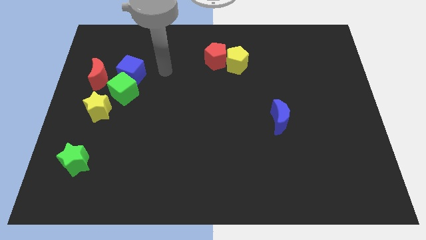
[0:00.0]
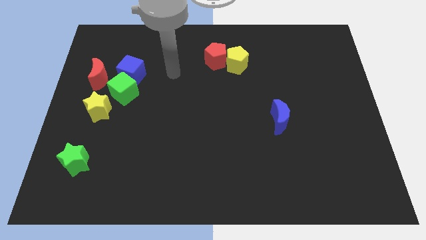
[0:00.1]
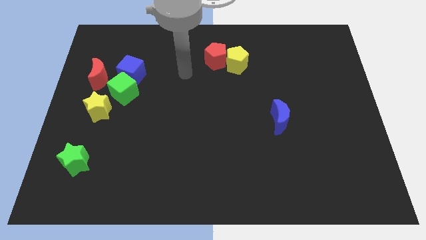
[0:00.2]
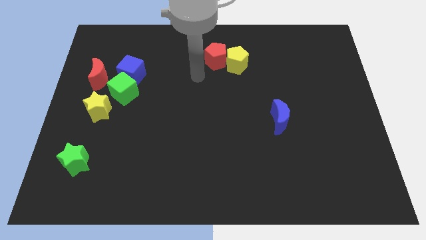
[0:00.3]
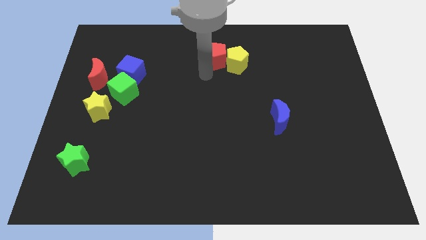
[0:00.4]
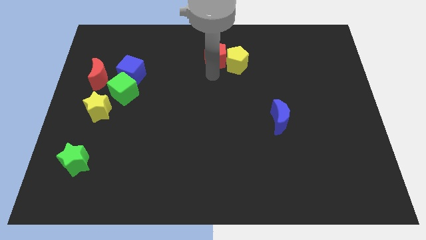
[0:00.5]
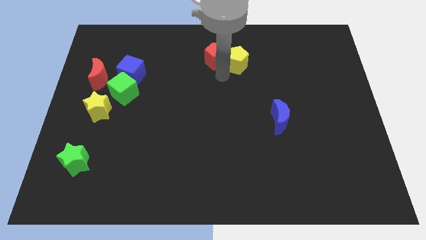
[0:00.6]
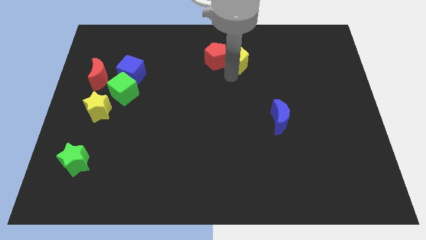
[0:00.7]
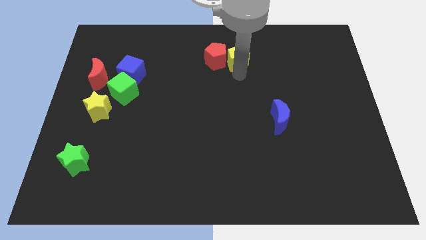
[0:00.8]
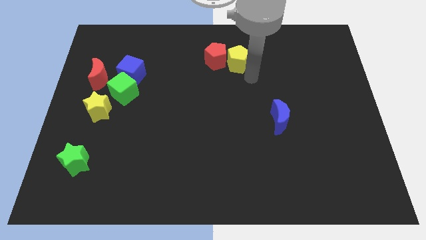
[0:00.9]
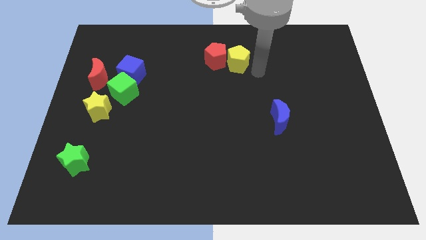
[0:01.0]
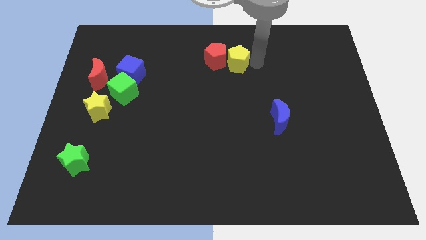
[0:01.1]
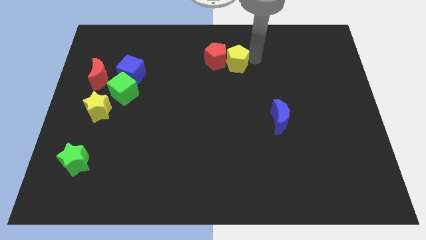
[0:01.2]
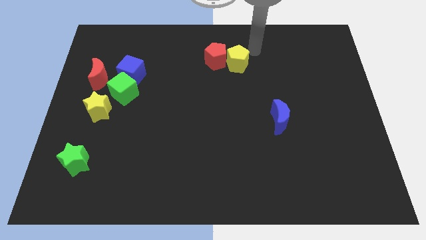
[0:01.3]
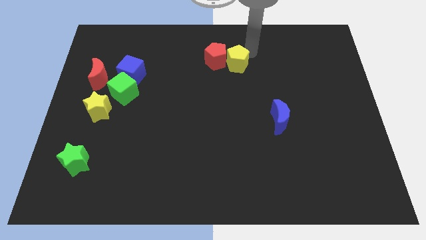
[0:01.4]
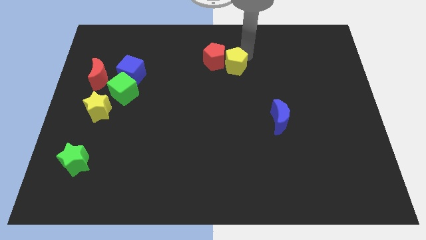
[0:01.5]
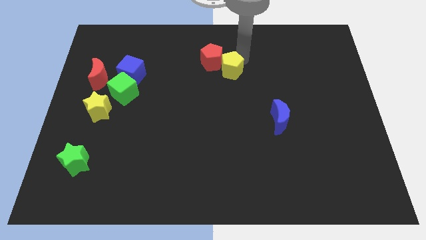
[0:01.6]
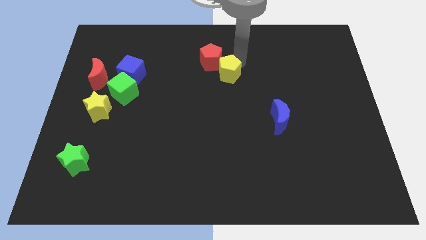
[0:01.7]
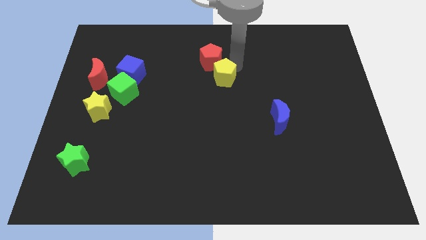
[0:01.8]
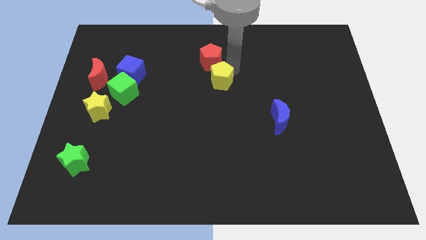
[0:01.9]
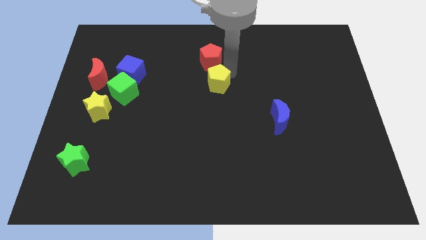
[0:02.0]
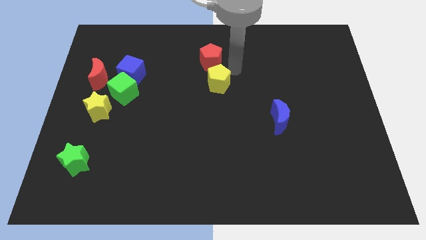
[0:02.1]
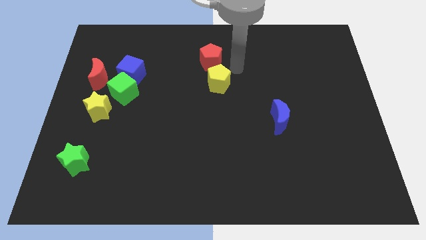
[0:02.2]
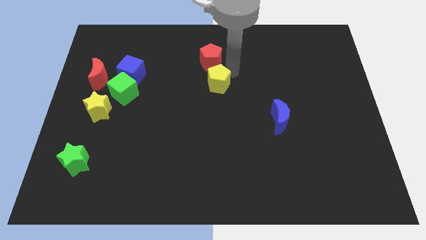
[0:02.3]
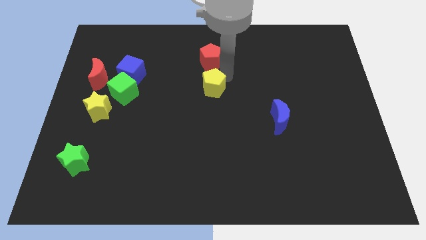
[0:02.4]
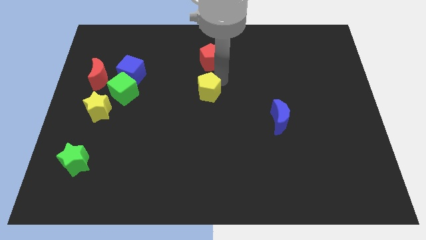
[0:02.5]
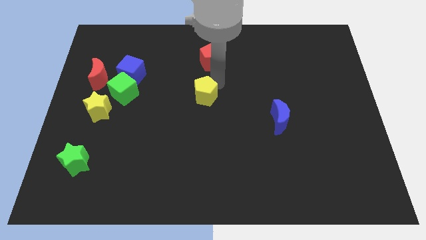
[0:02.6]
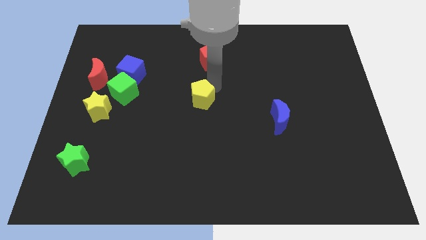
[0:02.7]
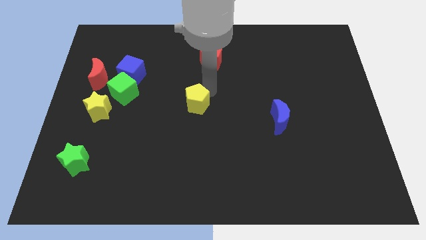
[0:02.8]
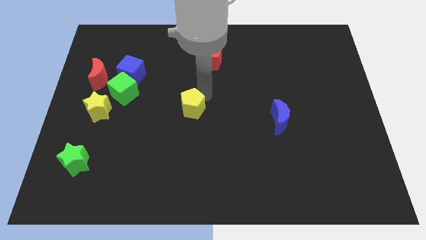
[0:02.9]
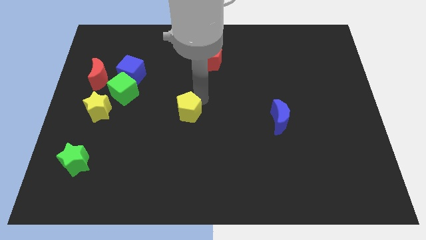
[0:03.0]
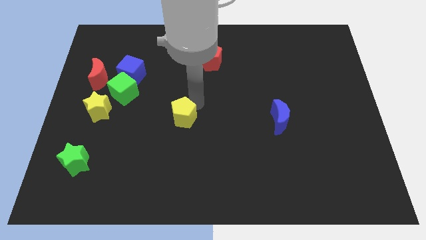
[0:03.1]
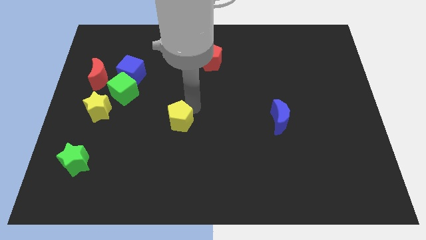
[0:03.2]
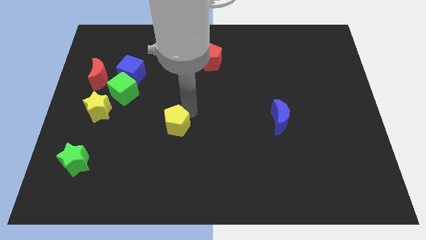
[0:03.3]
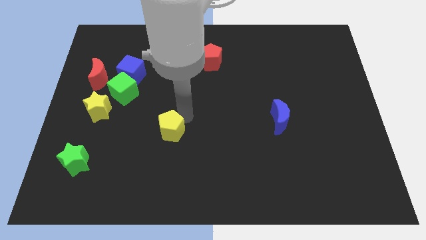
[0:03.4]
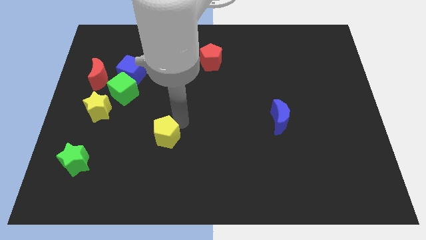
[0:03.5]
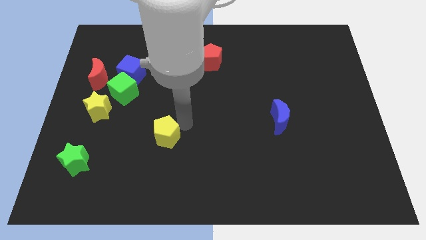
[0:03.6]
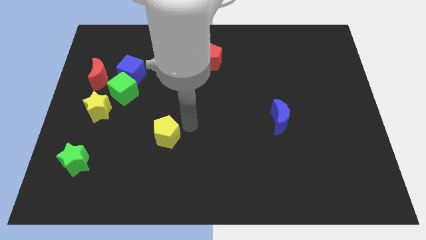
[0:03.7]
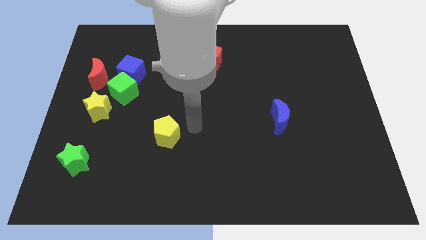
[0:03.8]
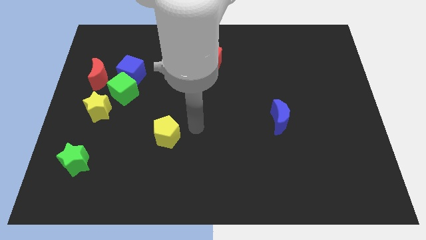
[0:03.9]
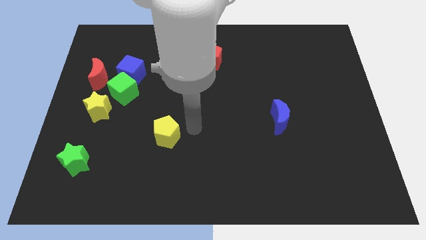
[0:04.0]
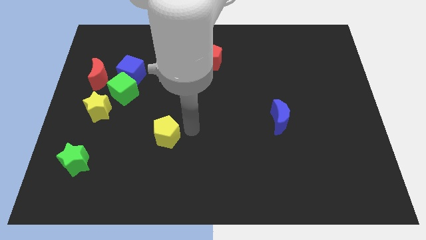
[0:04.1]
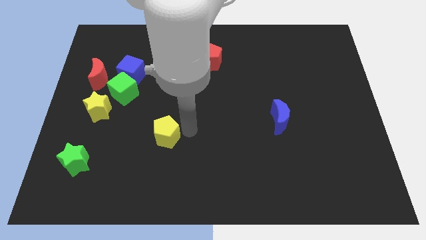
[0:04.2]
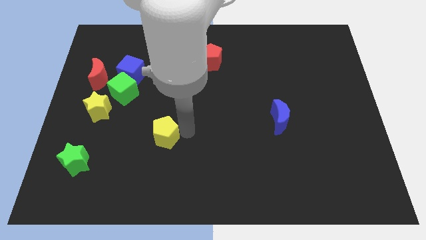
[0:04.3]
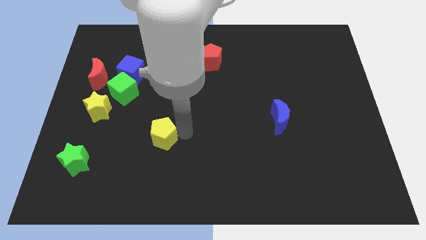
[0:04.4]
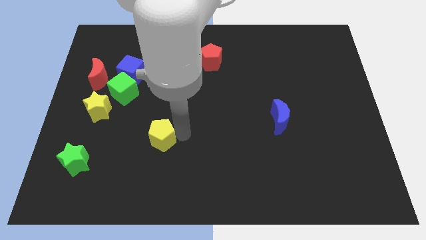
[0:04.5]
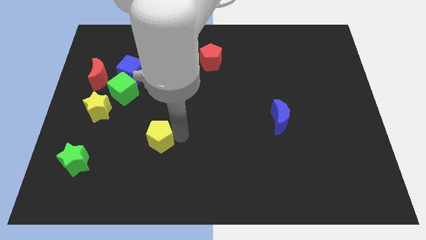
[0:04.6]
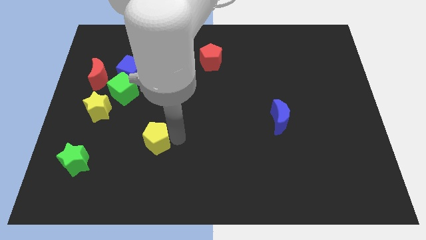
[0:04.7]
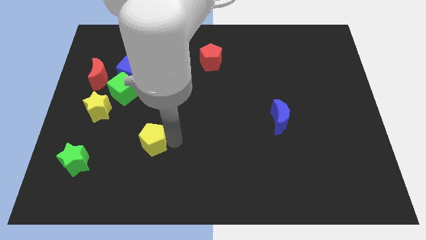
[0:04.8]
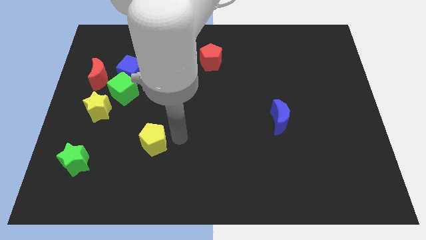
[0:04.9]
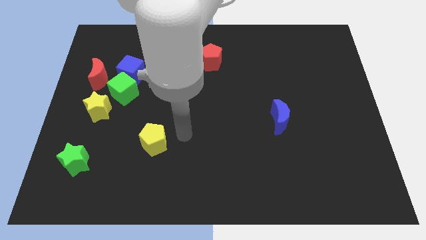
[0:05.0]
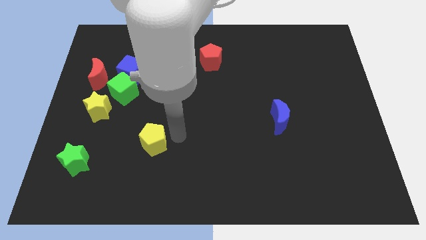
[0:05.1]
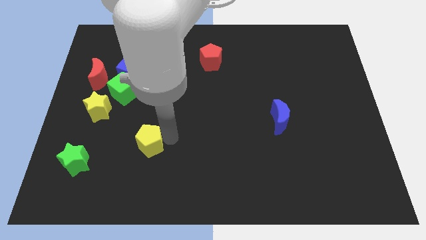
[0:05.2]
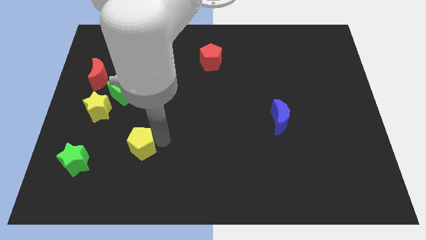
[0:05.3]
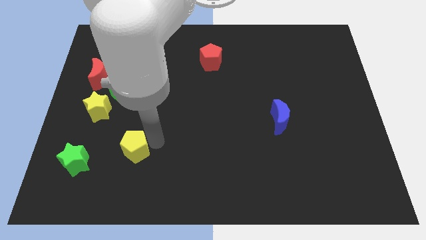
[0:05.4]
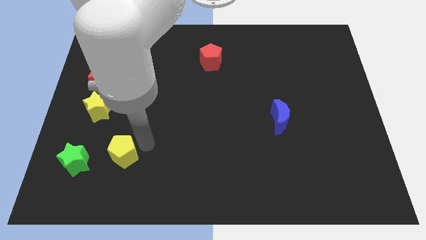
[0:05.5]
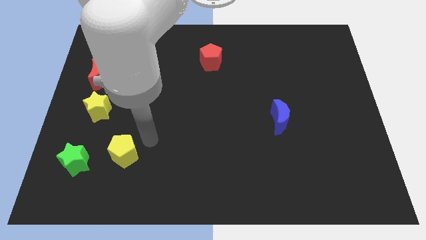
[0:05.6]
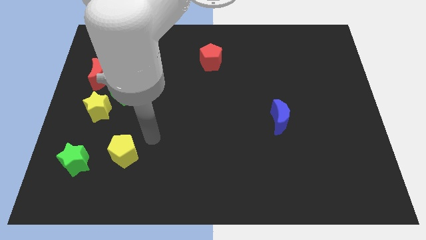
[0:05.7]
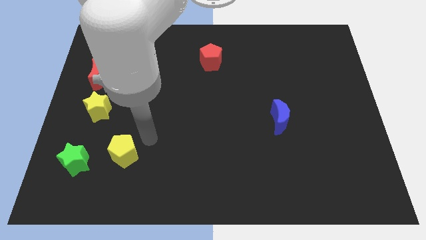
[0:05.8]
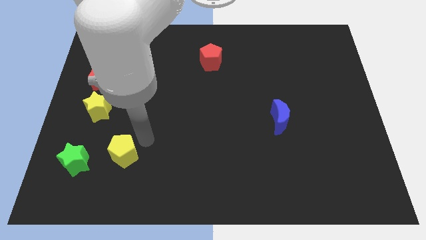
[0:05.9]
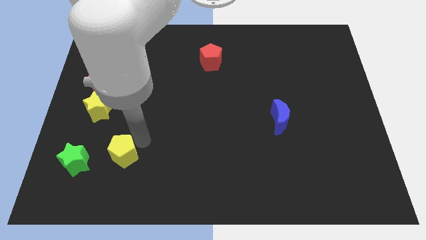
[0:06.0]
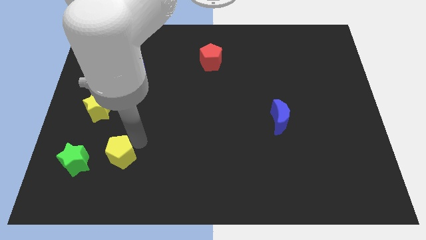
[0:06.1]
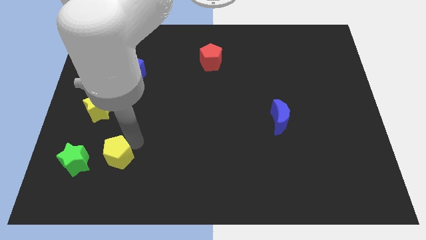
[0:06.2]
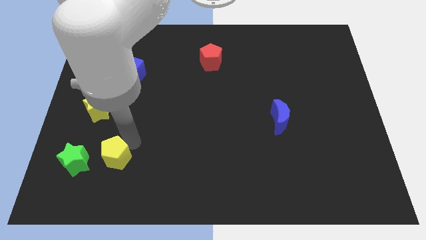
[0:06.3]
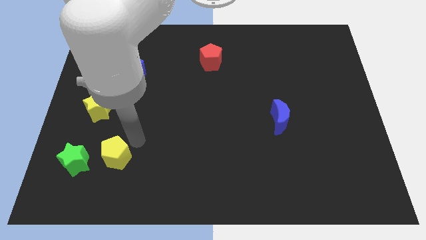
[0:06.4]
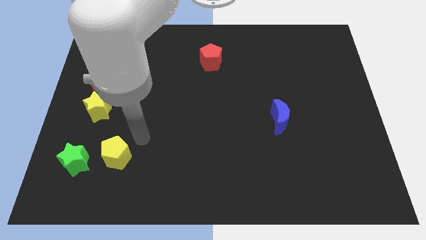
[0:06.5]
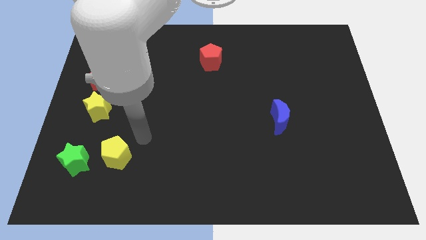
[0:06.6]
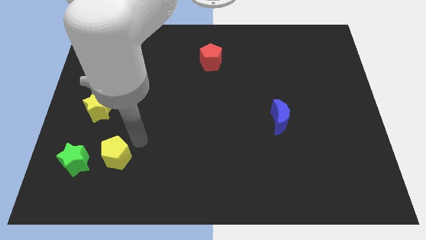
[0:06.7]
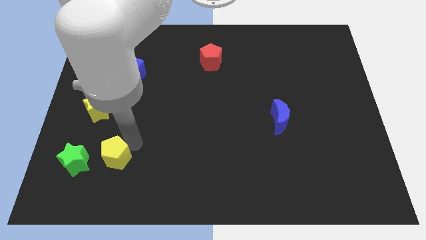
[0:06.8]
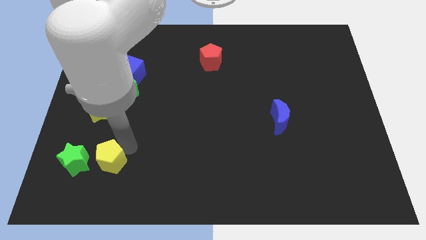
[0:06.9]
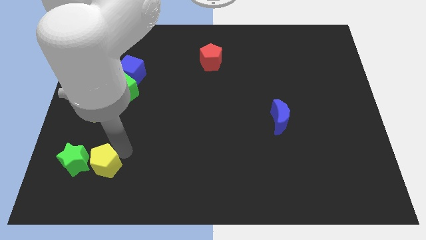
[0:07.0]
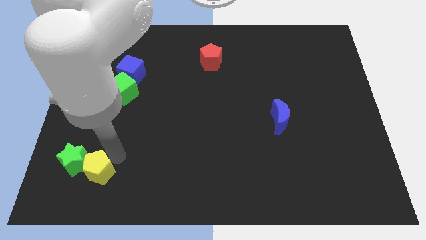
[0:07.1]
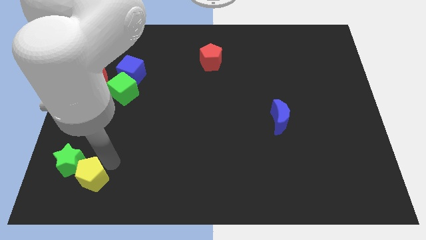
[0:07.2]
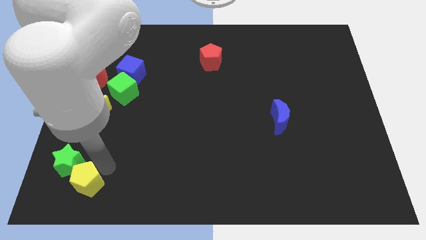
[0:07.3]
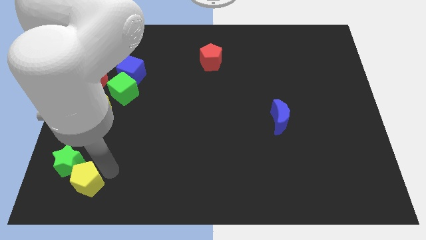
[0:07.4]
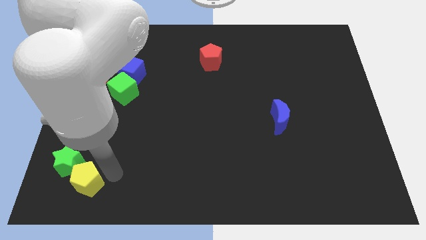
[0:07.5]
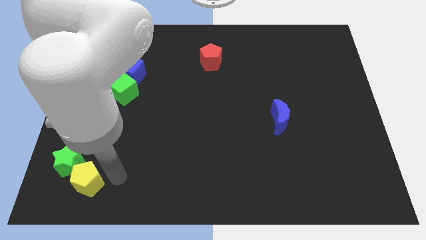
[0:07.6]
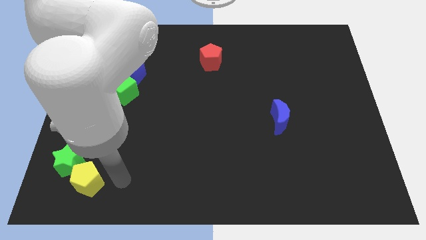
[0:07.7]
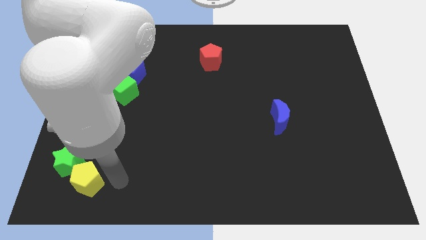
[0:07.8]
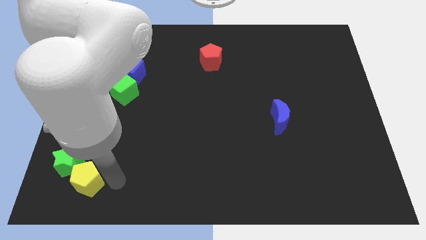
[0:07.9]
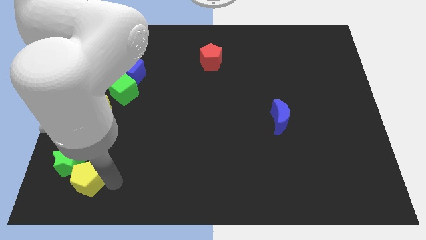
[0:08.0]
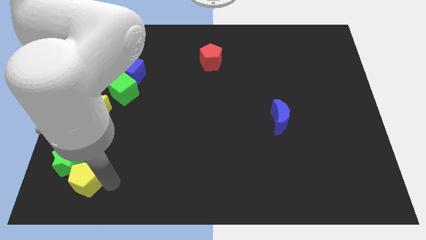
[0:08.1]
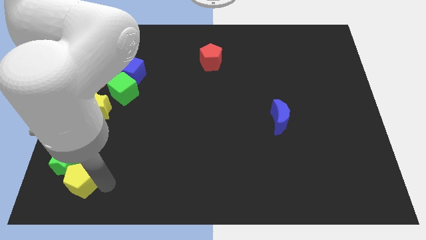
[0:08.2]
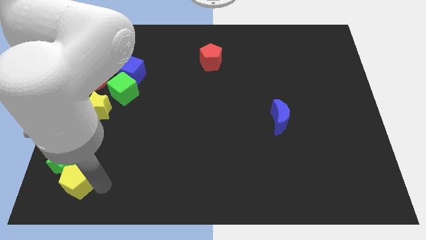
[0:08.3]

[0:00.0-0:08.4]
slide the yellow pentagon to the bottom left of the board
